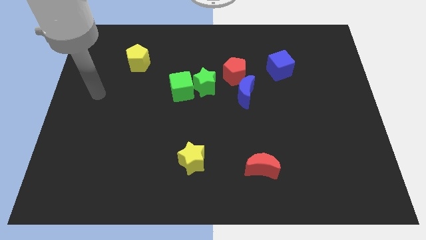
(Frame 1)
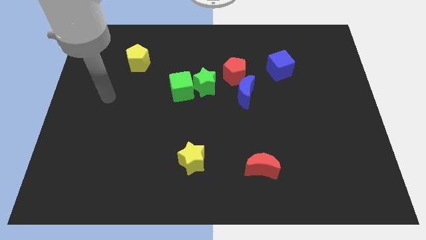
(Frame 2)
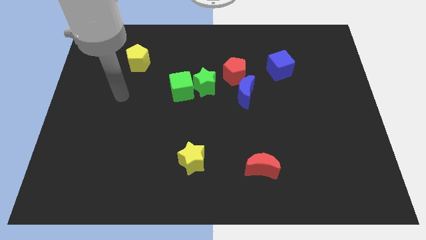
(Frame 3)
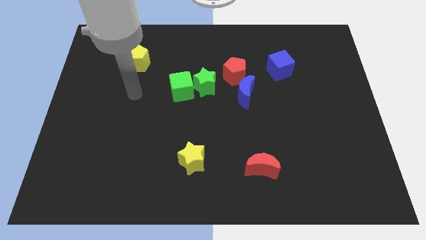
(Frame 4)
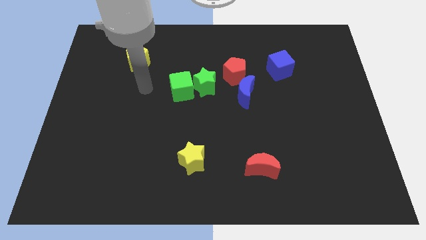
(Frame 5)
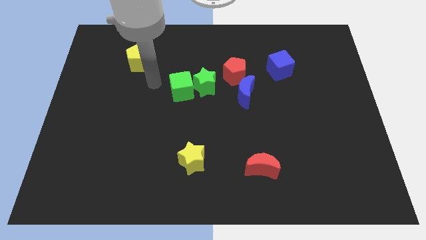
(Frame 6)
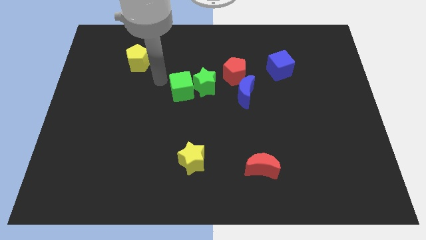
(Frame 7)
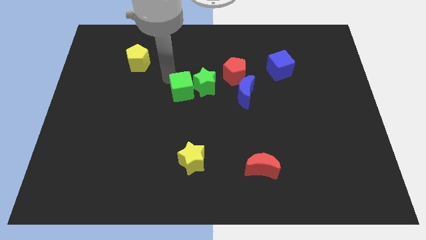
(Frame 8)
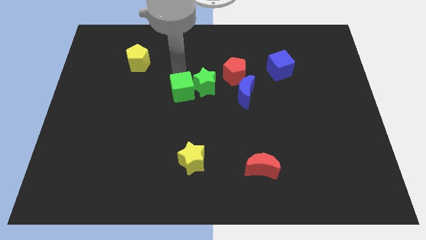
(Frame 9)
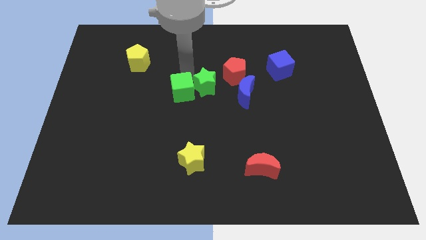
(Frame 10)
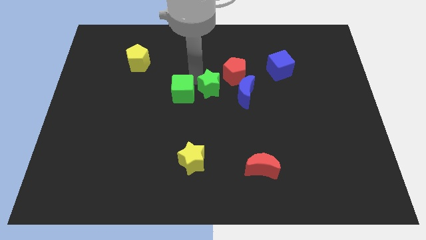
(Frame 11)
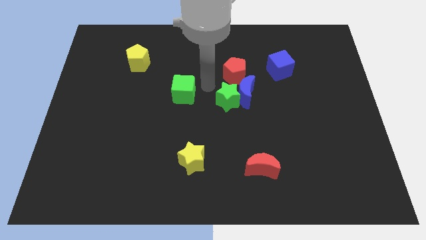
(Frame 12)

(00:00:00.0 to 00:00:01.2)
pull the green cube apart from the green star

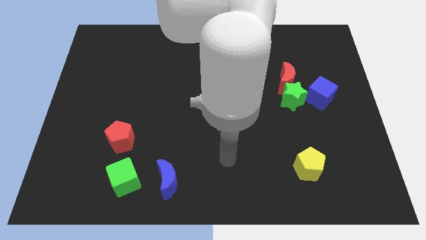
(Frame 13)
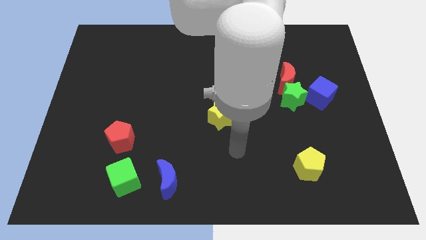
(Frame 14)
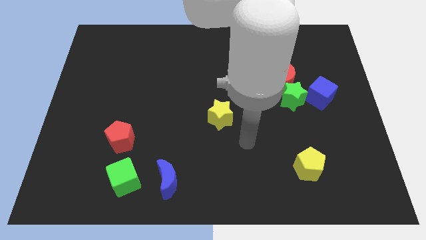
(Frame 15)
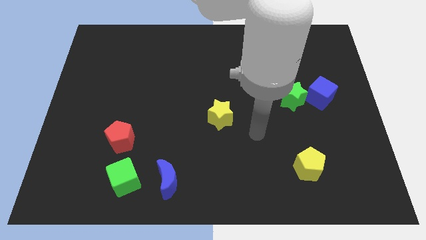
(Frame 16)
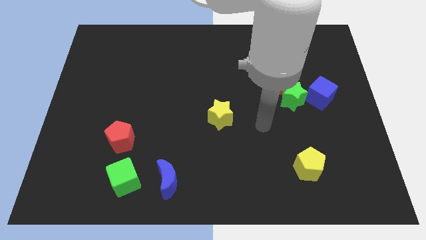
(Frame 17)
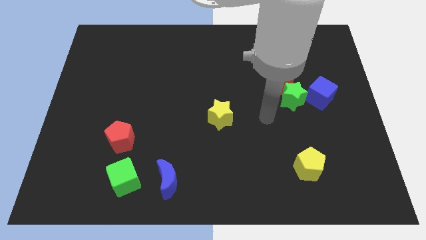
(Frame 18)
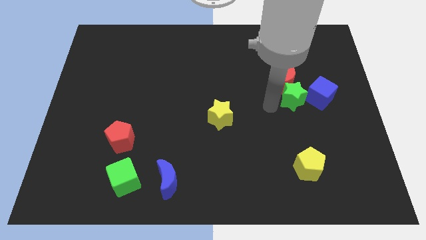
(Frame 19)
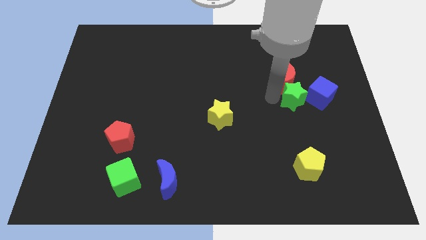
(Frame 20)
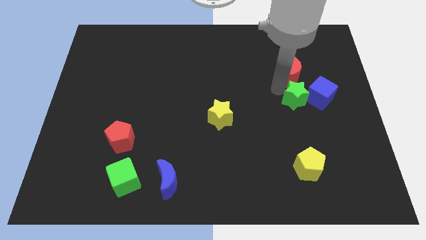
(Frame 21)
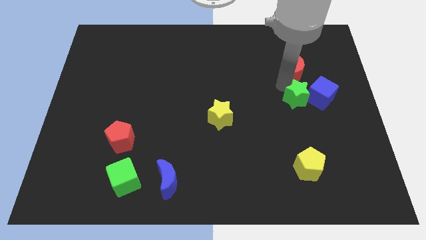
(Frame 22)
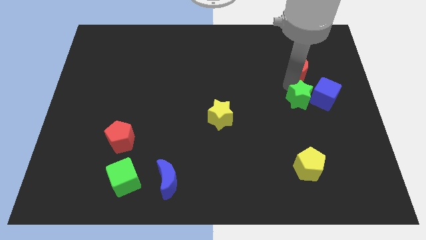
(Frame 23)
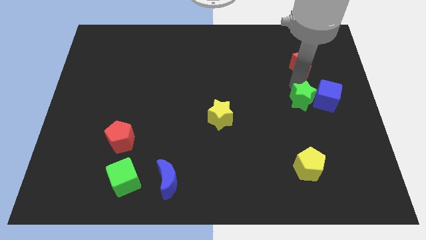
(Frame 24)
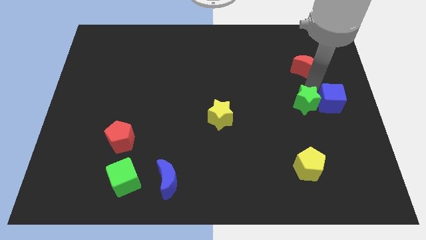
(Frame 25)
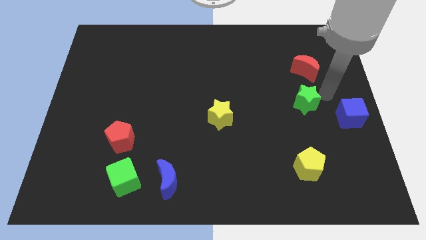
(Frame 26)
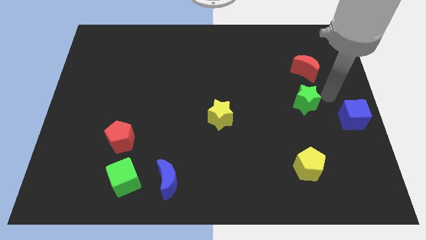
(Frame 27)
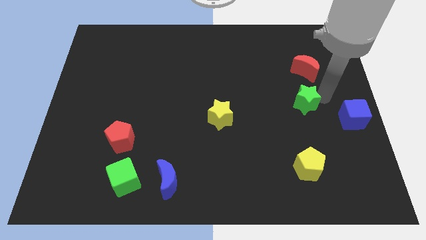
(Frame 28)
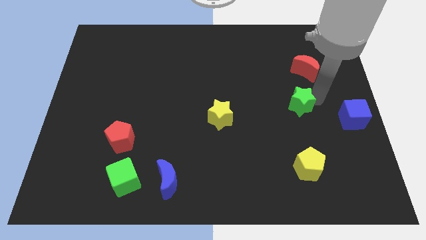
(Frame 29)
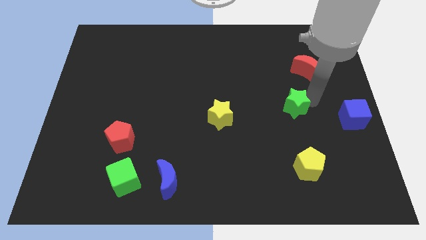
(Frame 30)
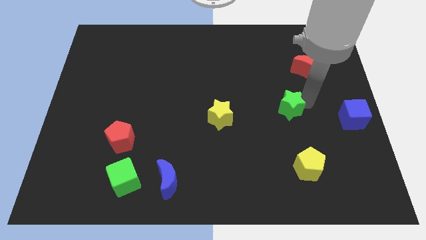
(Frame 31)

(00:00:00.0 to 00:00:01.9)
separate the green star from the red moon and blue cube

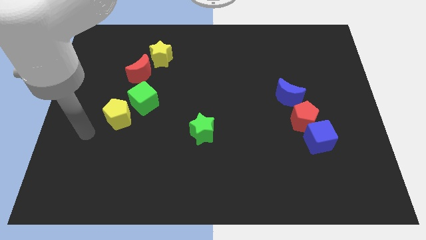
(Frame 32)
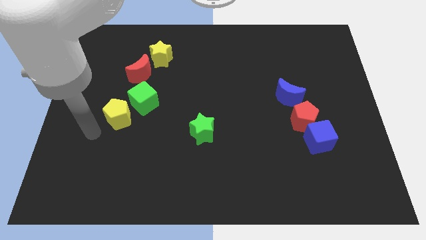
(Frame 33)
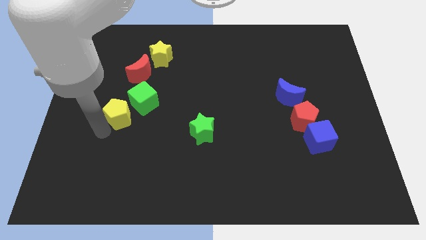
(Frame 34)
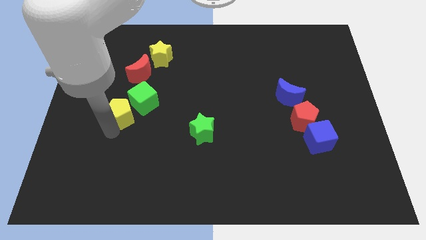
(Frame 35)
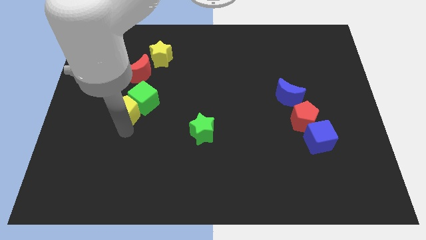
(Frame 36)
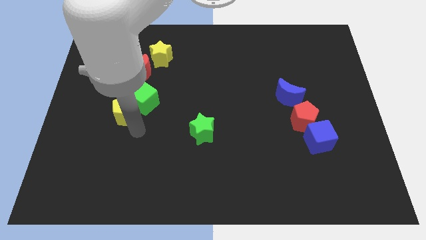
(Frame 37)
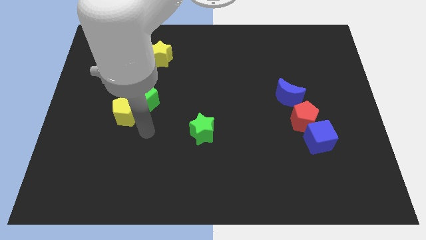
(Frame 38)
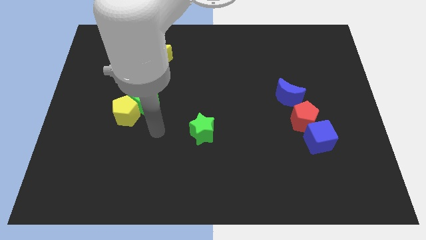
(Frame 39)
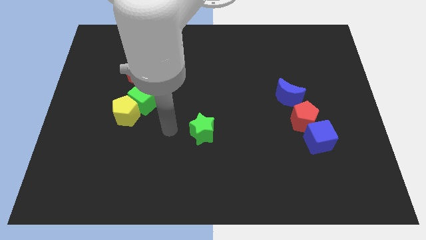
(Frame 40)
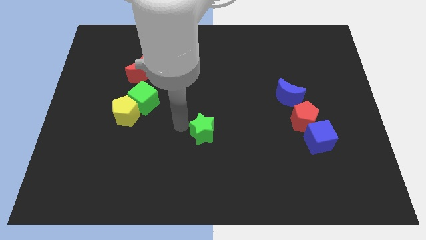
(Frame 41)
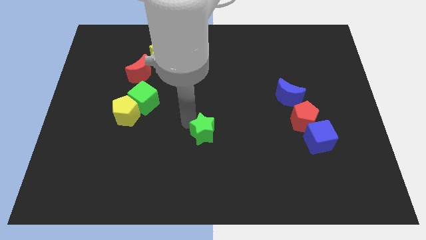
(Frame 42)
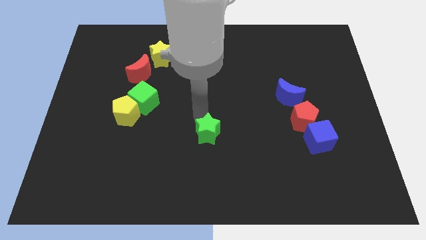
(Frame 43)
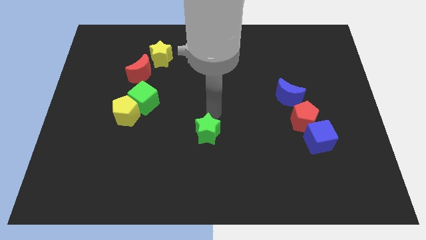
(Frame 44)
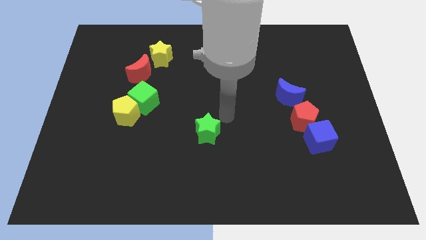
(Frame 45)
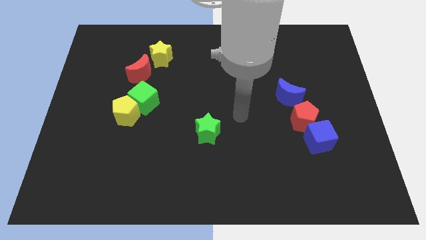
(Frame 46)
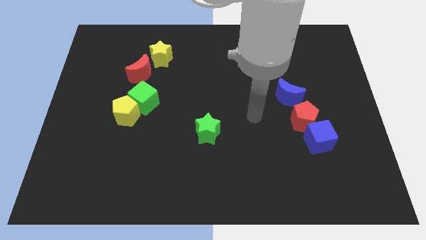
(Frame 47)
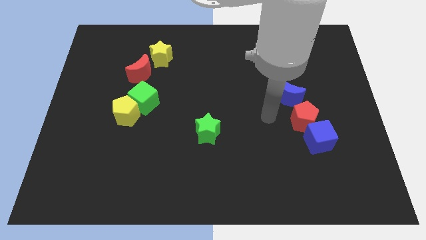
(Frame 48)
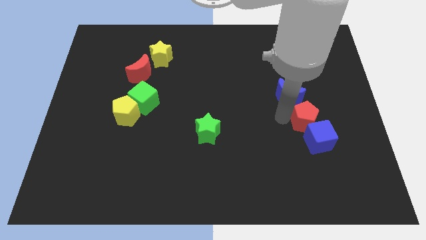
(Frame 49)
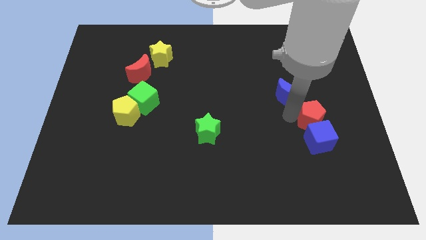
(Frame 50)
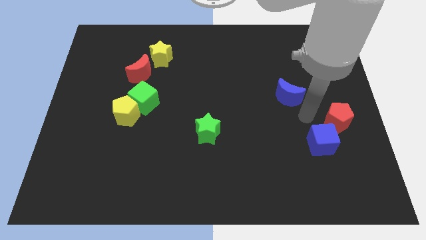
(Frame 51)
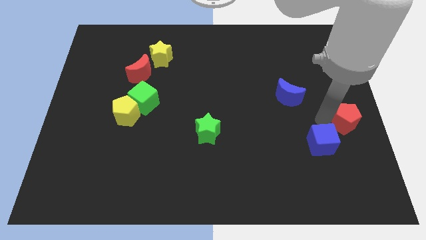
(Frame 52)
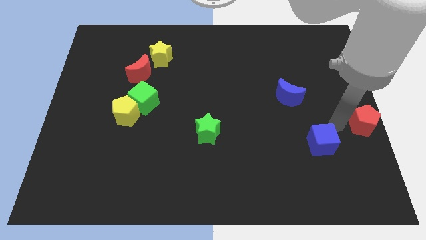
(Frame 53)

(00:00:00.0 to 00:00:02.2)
separate the blue cube from the red pentagon

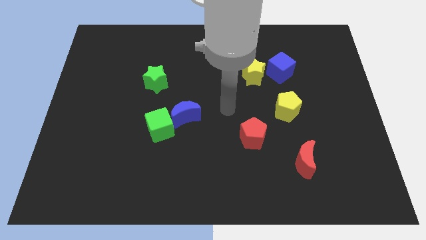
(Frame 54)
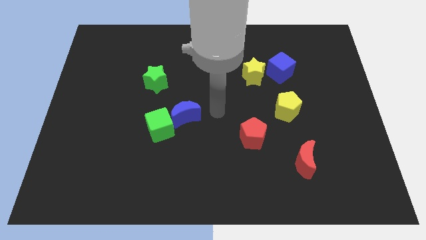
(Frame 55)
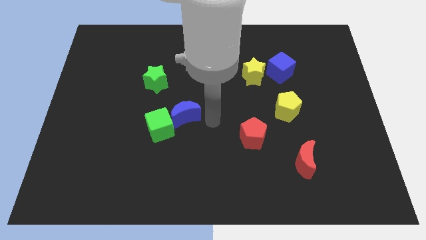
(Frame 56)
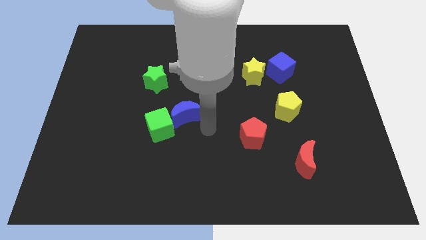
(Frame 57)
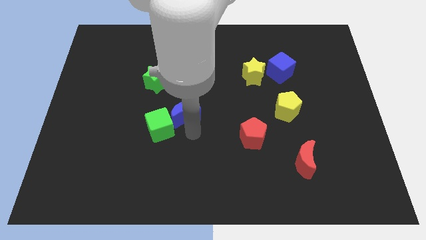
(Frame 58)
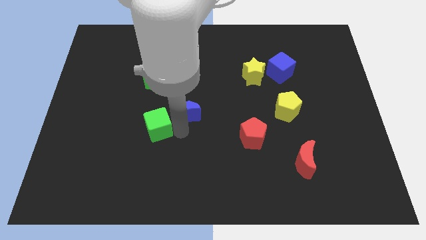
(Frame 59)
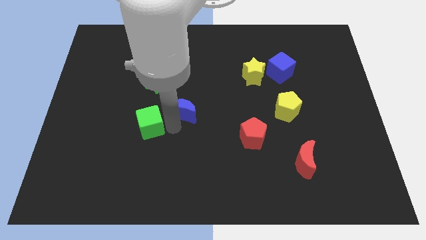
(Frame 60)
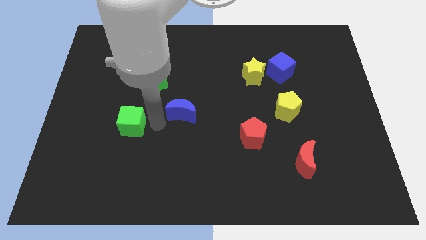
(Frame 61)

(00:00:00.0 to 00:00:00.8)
pull the blue moon apart from the green cube

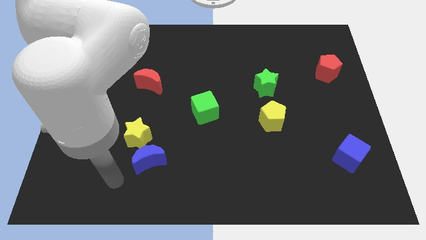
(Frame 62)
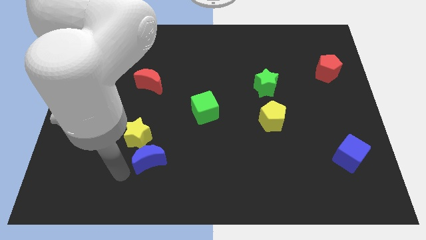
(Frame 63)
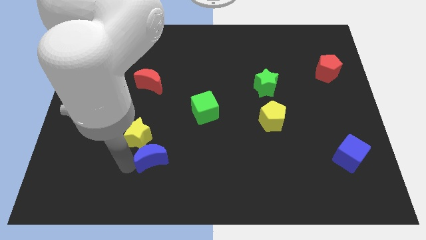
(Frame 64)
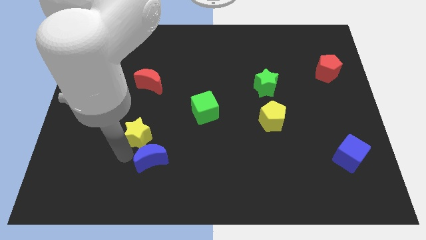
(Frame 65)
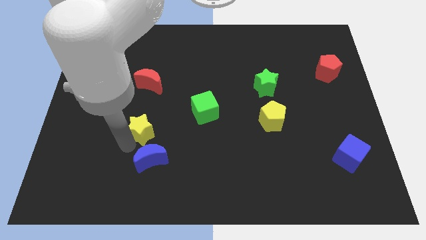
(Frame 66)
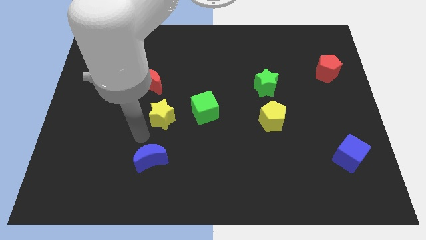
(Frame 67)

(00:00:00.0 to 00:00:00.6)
separate the blue moon from the yellow star

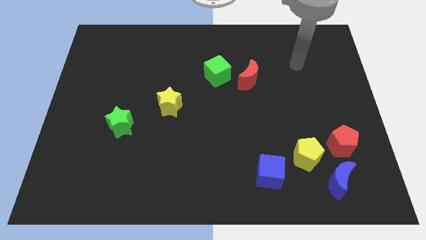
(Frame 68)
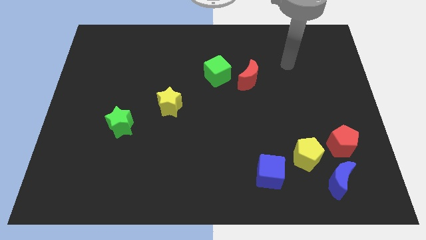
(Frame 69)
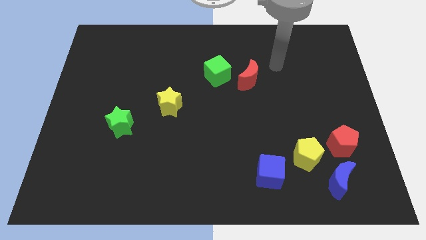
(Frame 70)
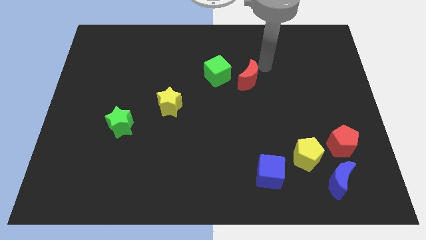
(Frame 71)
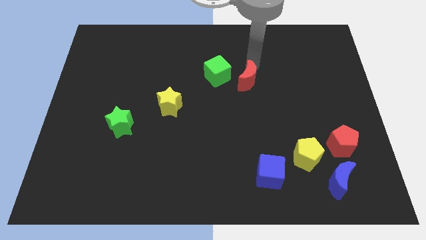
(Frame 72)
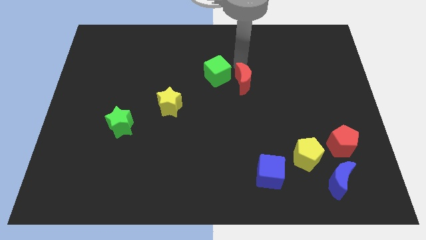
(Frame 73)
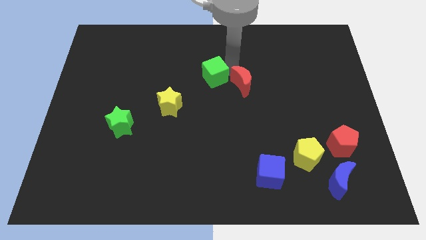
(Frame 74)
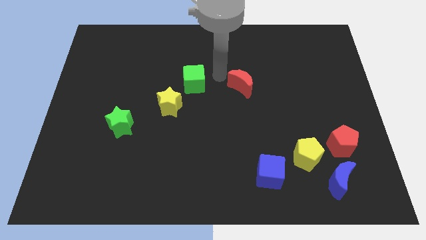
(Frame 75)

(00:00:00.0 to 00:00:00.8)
move the red moon away from the green cube

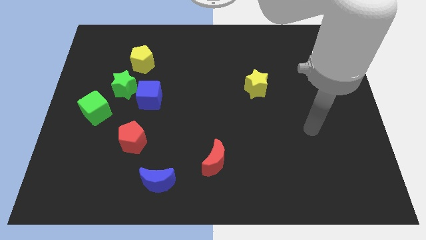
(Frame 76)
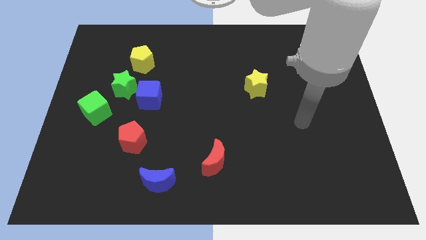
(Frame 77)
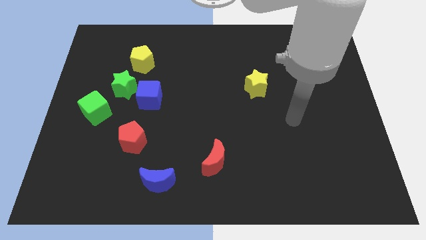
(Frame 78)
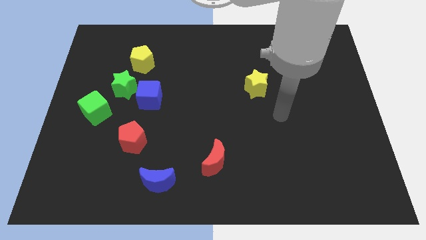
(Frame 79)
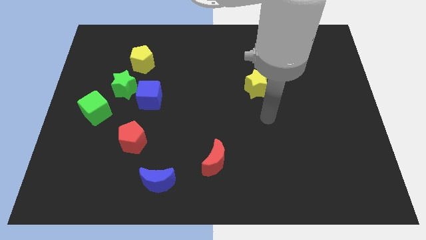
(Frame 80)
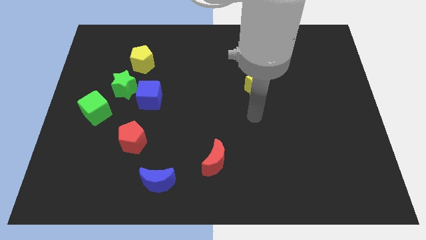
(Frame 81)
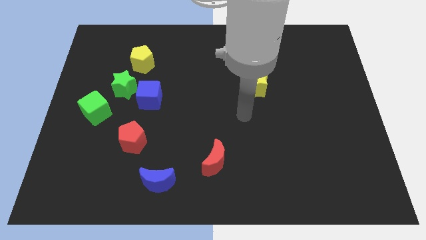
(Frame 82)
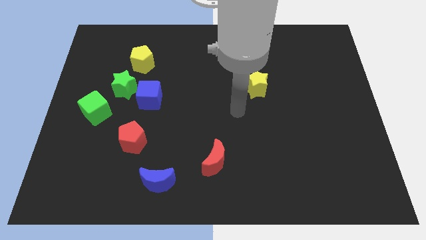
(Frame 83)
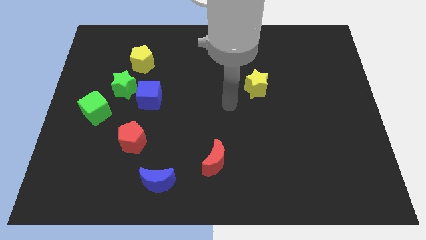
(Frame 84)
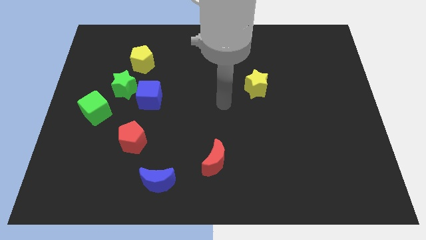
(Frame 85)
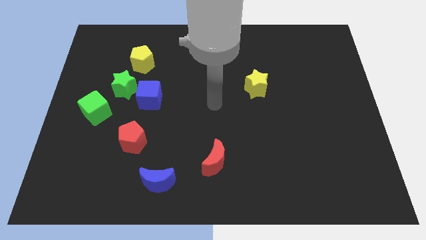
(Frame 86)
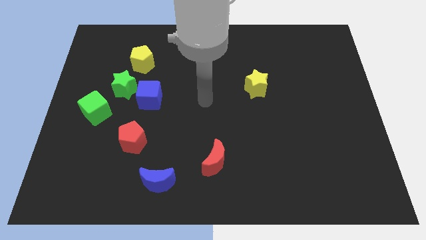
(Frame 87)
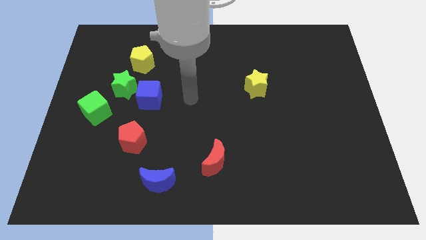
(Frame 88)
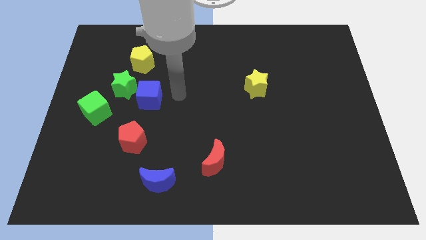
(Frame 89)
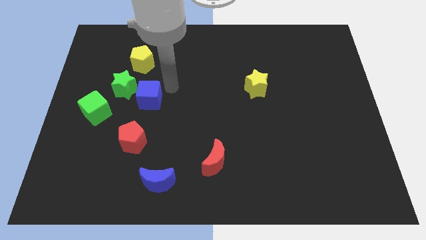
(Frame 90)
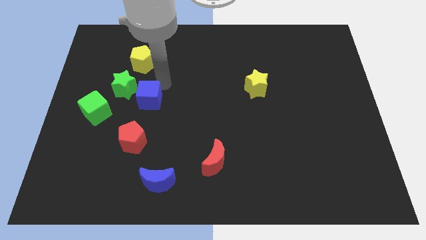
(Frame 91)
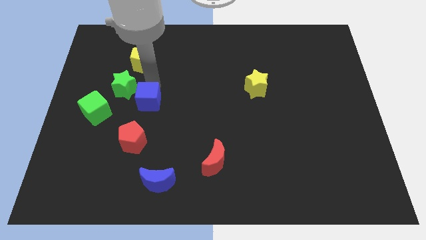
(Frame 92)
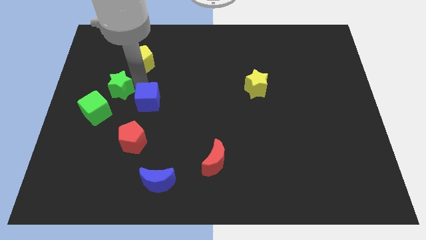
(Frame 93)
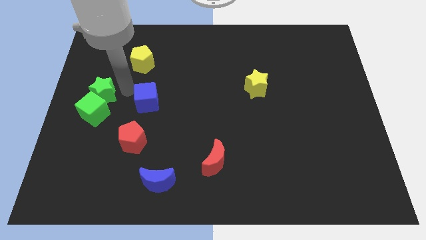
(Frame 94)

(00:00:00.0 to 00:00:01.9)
move the blue cube away from the green star
